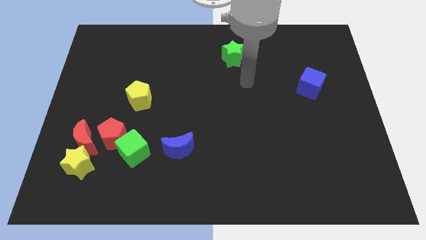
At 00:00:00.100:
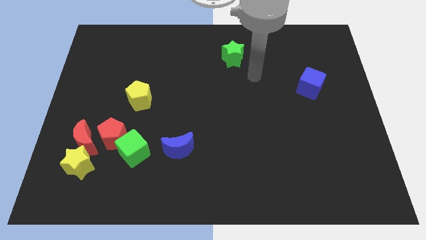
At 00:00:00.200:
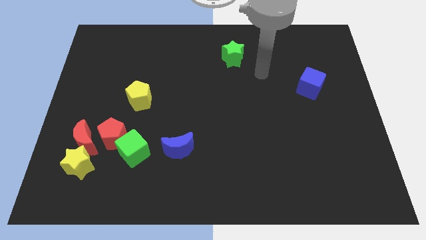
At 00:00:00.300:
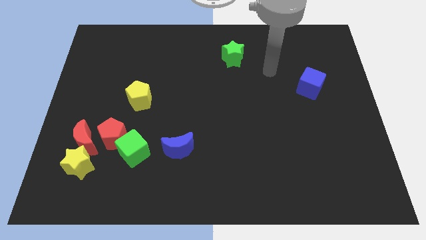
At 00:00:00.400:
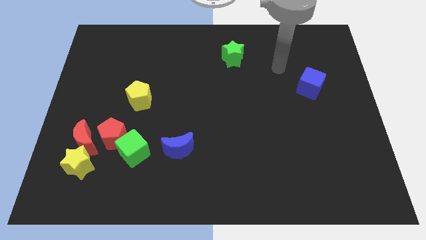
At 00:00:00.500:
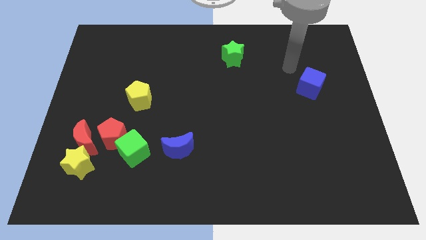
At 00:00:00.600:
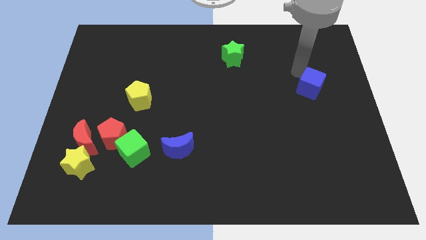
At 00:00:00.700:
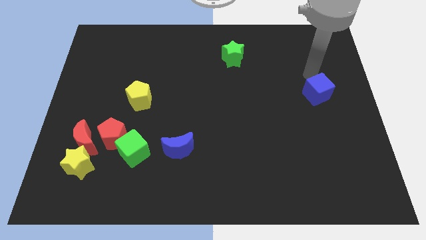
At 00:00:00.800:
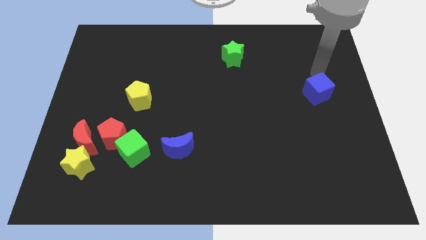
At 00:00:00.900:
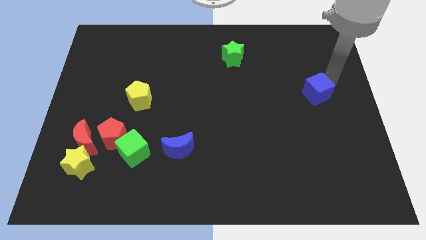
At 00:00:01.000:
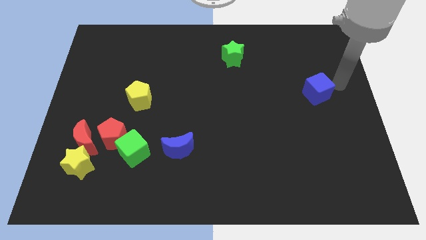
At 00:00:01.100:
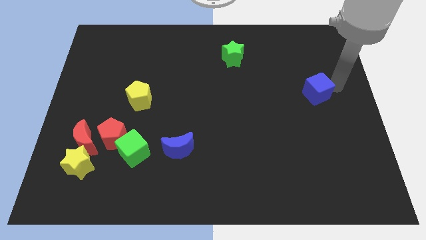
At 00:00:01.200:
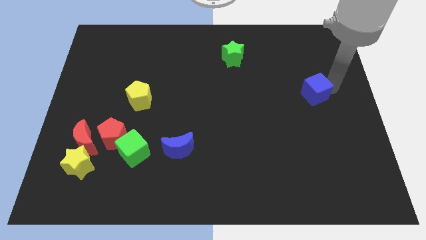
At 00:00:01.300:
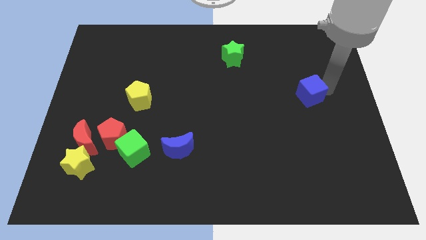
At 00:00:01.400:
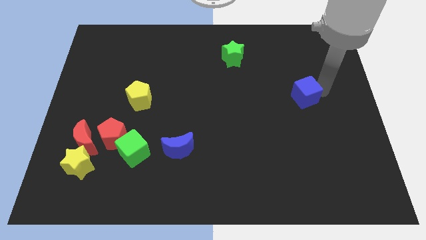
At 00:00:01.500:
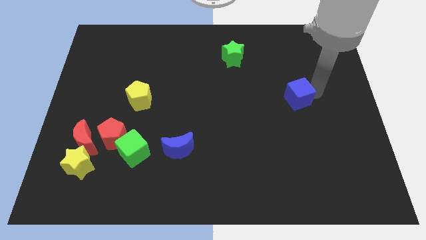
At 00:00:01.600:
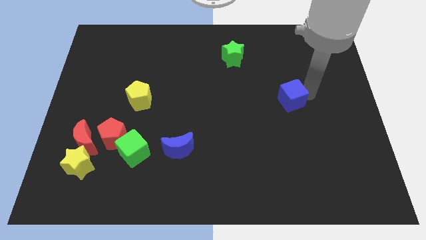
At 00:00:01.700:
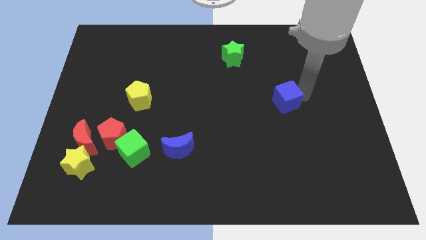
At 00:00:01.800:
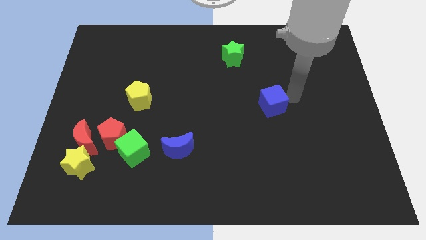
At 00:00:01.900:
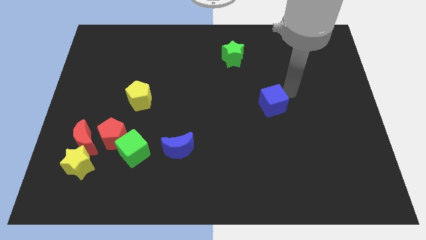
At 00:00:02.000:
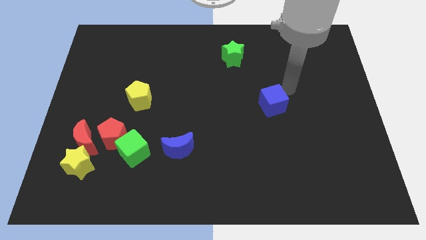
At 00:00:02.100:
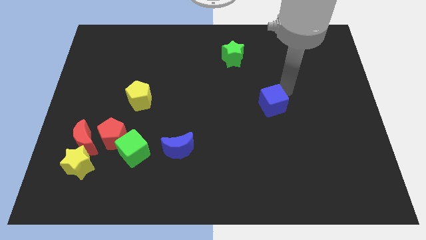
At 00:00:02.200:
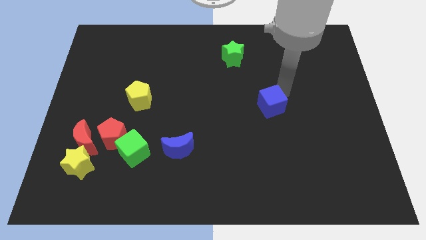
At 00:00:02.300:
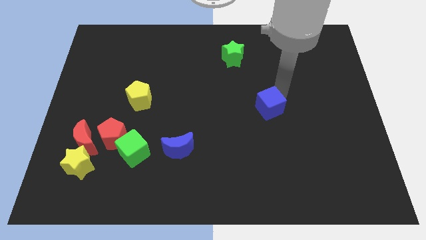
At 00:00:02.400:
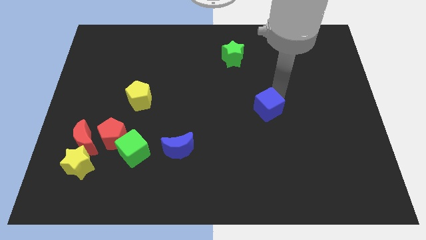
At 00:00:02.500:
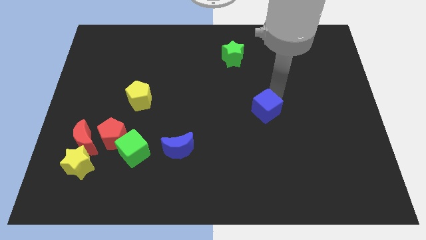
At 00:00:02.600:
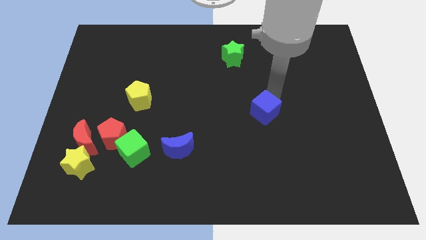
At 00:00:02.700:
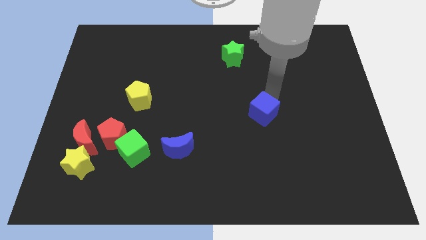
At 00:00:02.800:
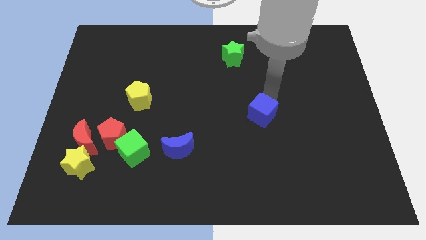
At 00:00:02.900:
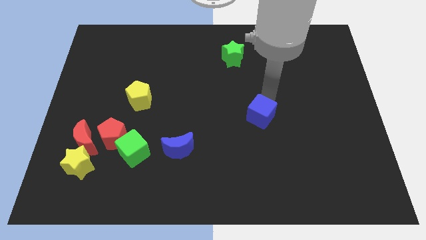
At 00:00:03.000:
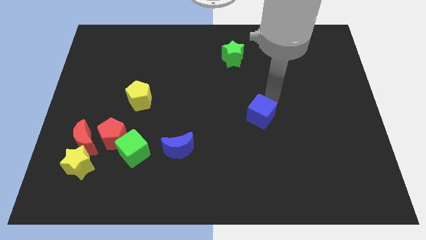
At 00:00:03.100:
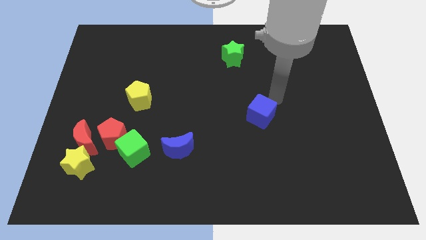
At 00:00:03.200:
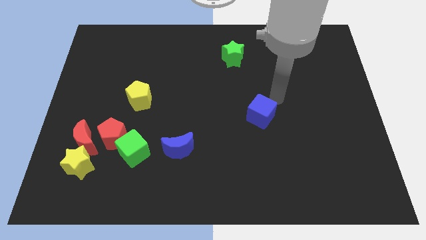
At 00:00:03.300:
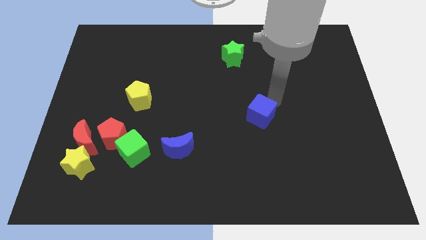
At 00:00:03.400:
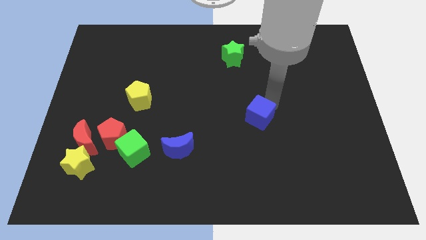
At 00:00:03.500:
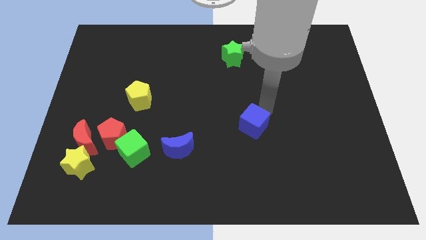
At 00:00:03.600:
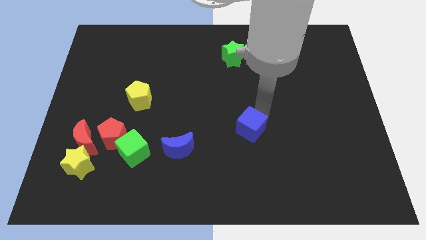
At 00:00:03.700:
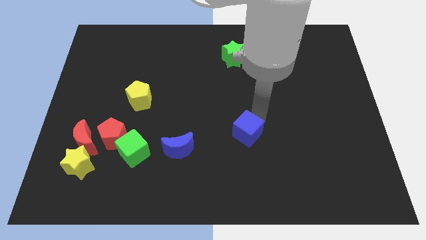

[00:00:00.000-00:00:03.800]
move the blue cube downwards and to the left

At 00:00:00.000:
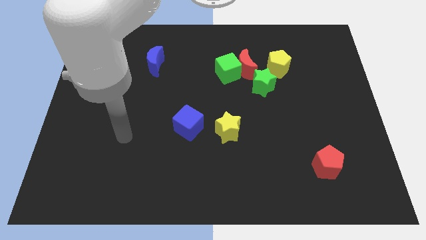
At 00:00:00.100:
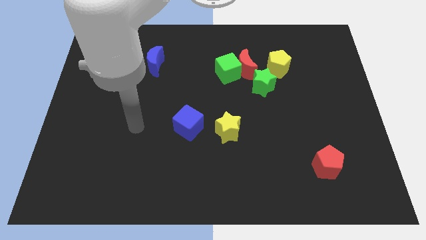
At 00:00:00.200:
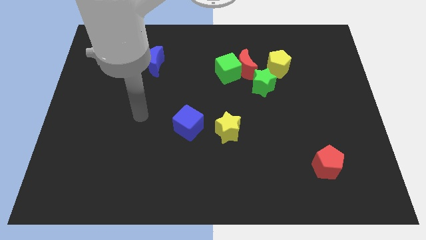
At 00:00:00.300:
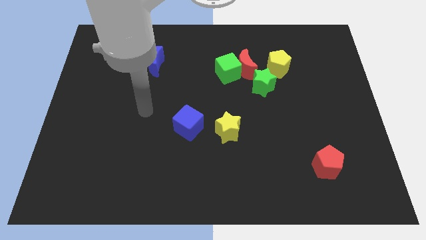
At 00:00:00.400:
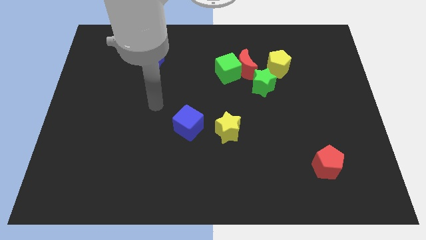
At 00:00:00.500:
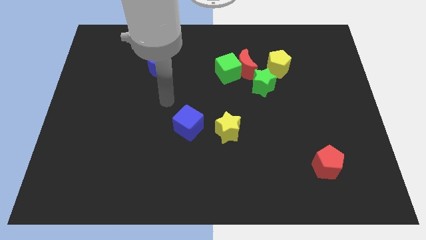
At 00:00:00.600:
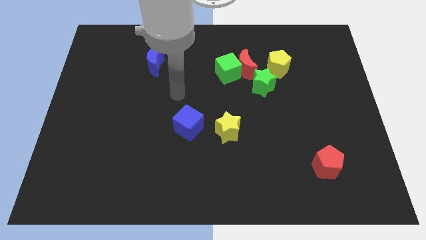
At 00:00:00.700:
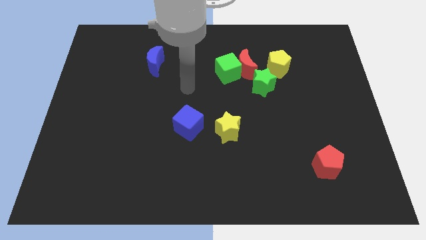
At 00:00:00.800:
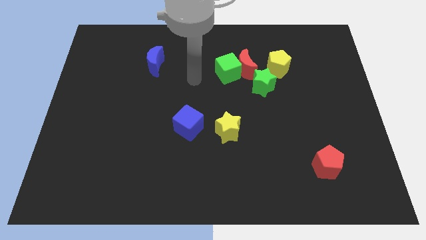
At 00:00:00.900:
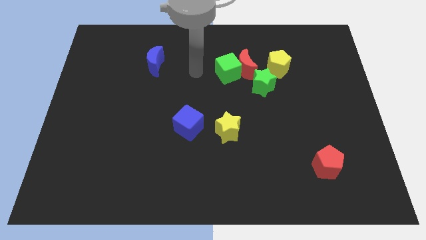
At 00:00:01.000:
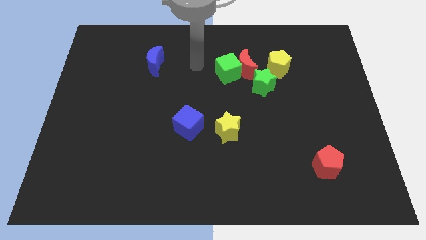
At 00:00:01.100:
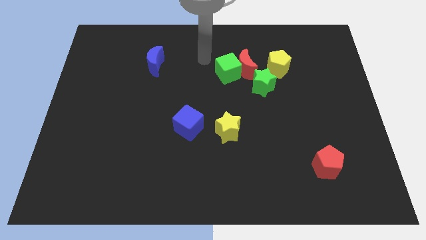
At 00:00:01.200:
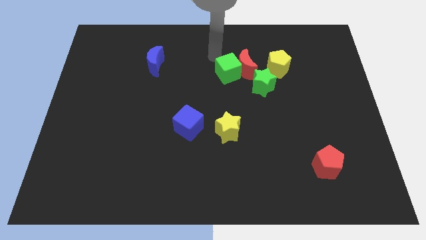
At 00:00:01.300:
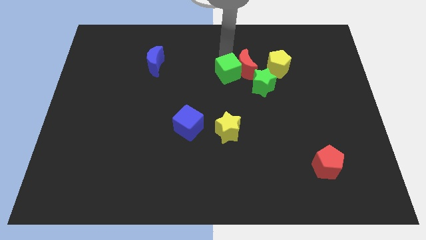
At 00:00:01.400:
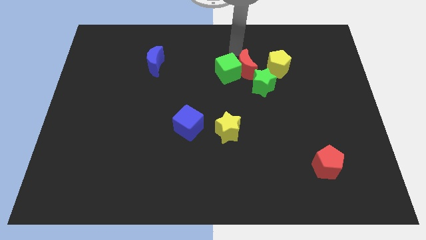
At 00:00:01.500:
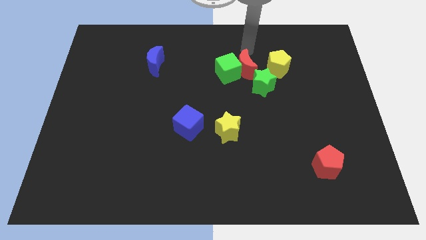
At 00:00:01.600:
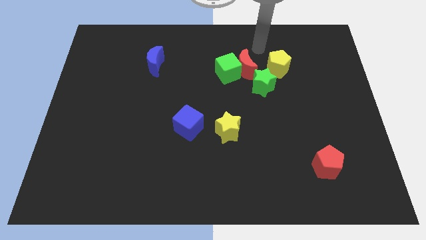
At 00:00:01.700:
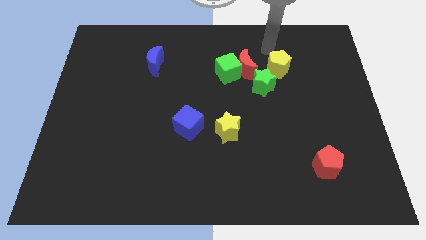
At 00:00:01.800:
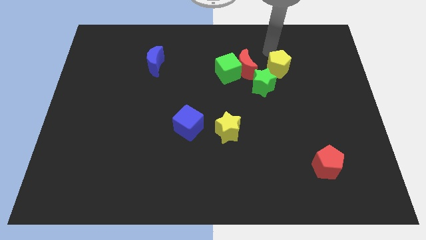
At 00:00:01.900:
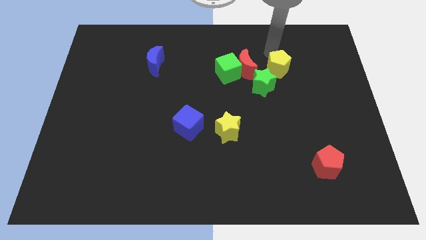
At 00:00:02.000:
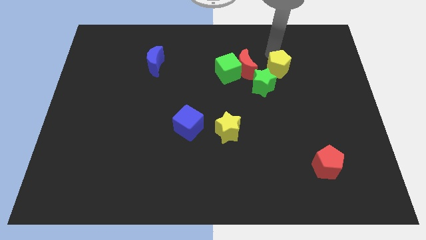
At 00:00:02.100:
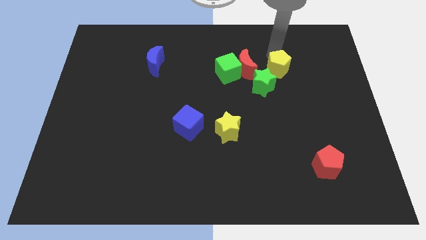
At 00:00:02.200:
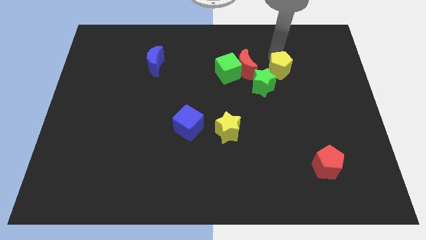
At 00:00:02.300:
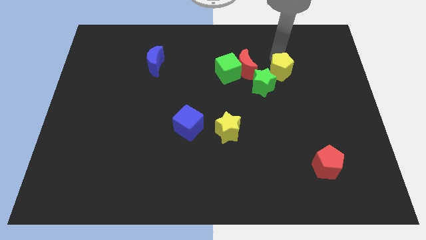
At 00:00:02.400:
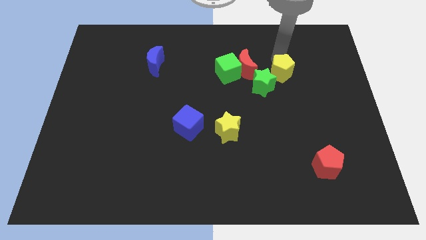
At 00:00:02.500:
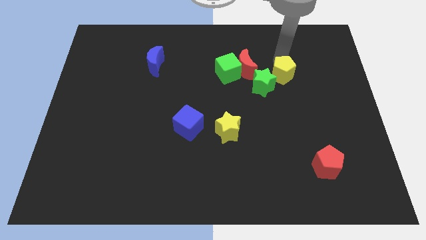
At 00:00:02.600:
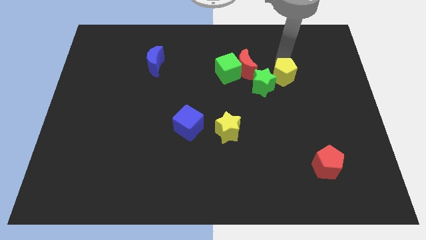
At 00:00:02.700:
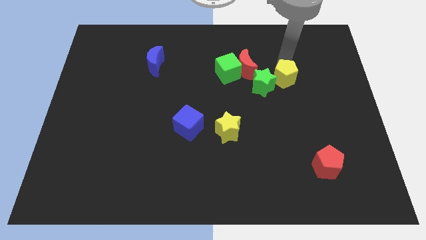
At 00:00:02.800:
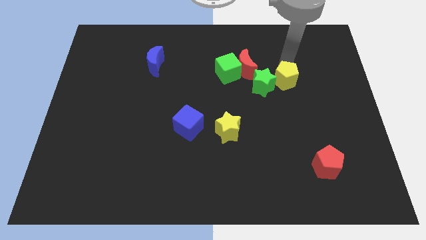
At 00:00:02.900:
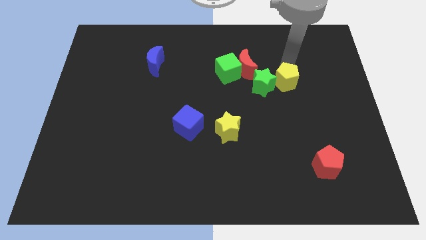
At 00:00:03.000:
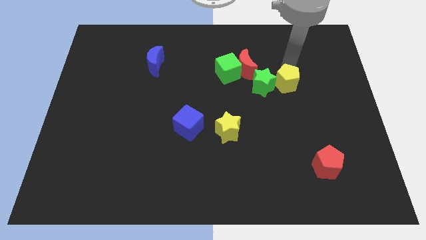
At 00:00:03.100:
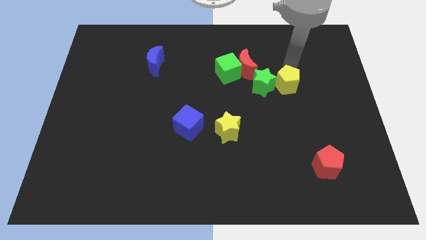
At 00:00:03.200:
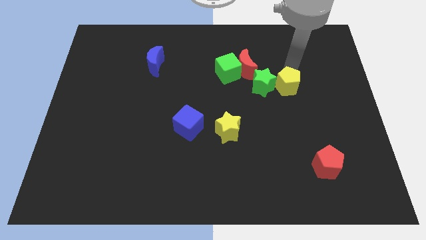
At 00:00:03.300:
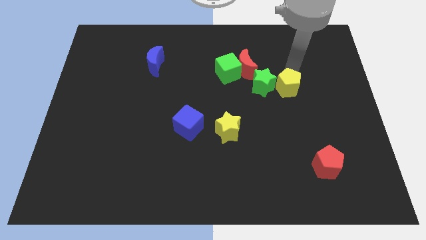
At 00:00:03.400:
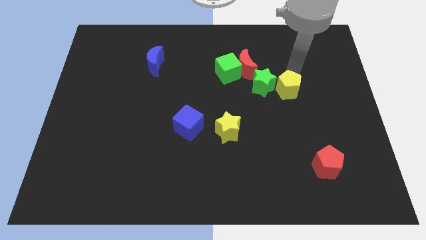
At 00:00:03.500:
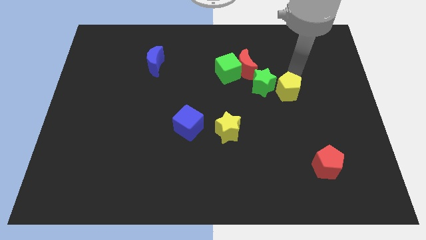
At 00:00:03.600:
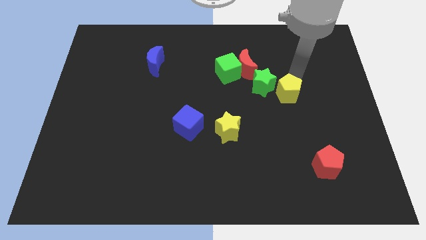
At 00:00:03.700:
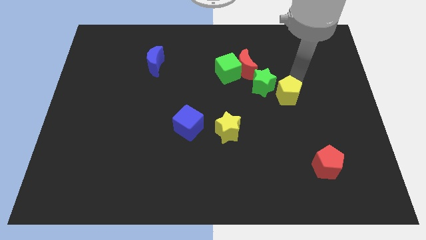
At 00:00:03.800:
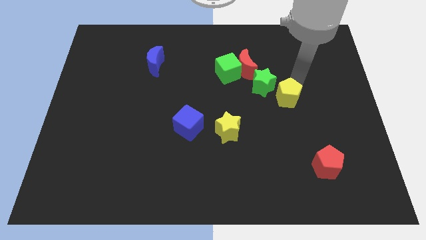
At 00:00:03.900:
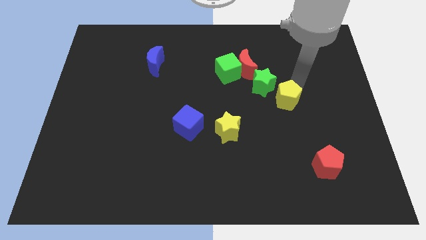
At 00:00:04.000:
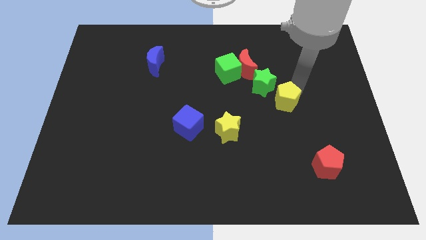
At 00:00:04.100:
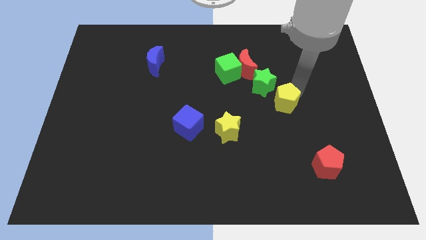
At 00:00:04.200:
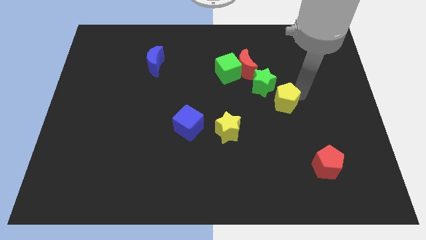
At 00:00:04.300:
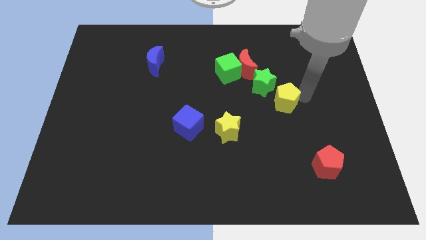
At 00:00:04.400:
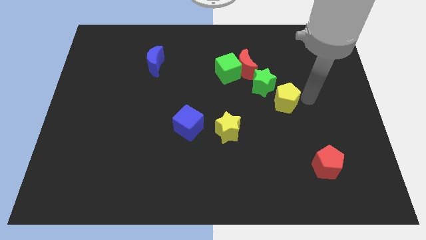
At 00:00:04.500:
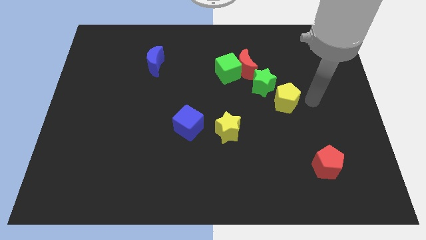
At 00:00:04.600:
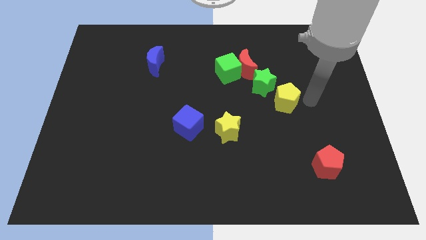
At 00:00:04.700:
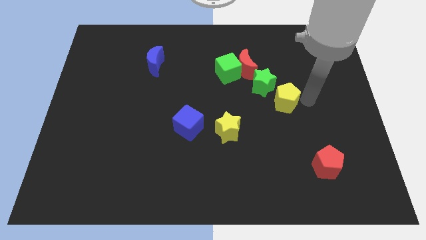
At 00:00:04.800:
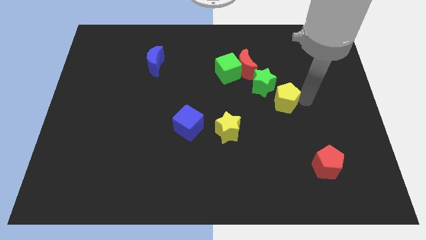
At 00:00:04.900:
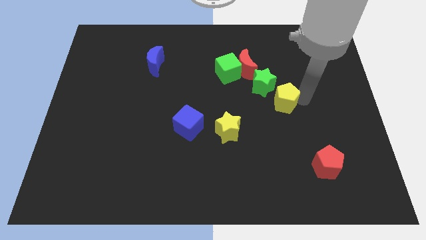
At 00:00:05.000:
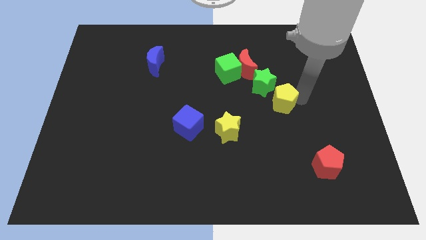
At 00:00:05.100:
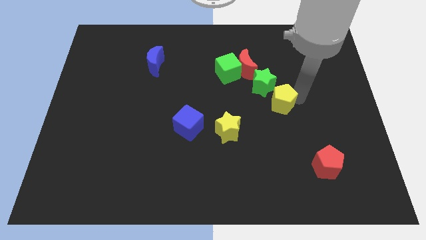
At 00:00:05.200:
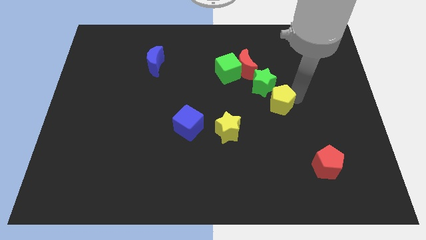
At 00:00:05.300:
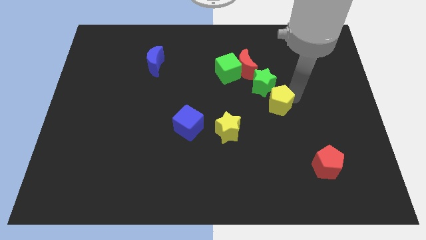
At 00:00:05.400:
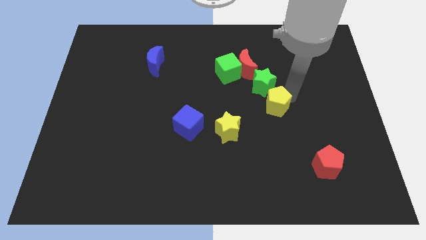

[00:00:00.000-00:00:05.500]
slightly slide the yellow pentagon downwards and then to the left
